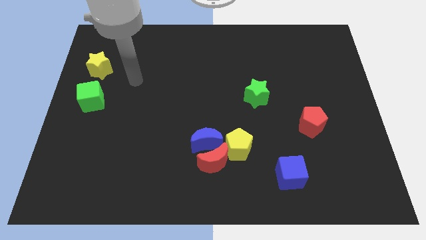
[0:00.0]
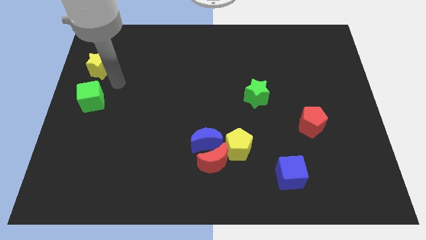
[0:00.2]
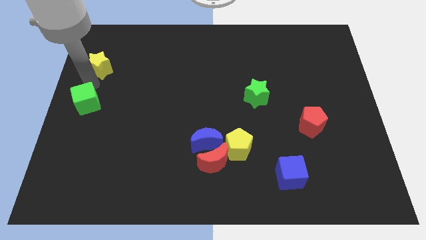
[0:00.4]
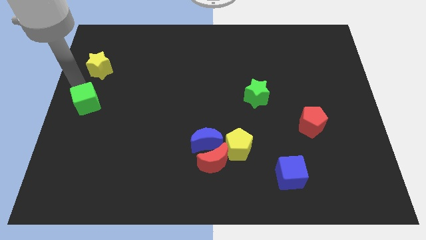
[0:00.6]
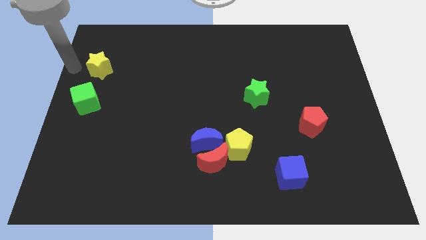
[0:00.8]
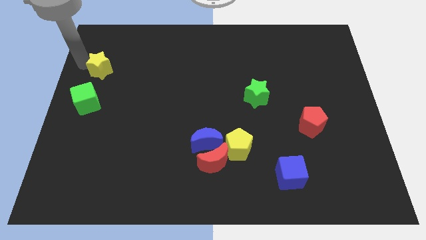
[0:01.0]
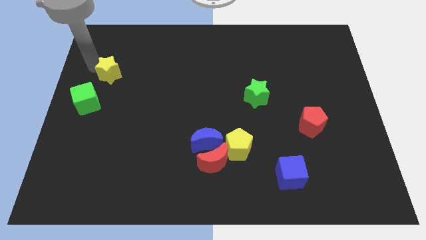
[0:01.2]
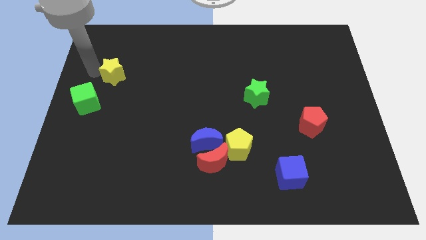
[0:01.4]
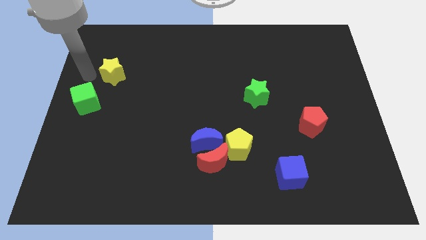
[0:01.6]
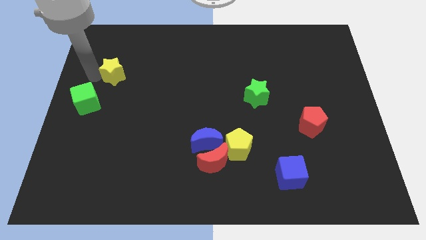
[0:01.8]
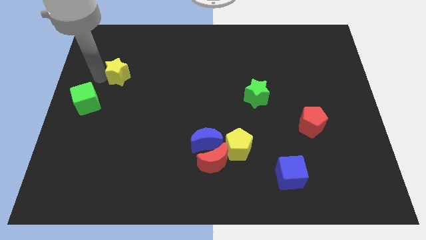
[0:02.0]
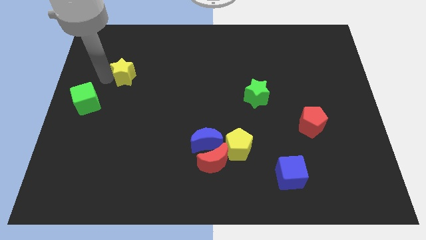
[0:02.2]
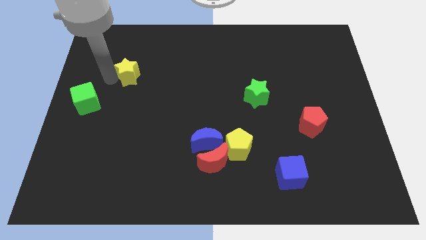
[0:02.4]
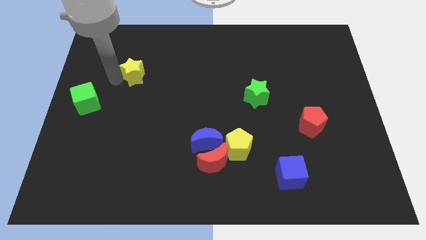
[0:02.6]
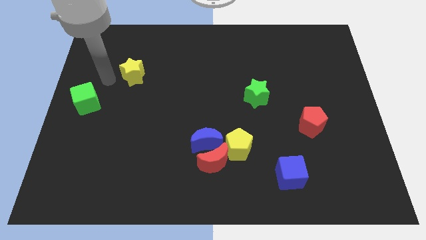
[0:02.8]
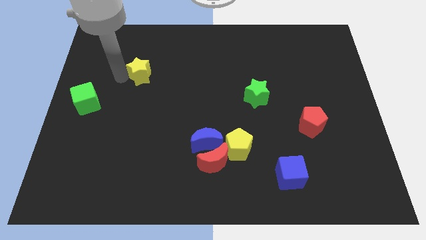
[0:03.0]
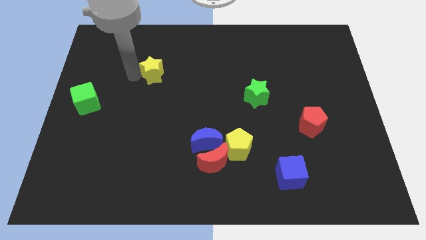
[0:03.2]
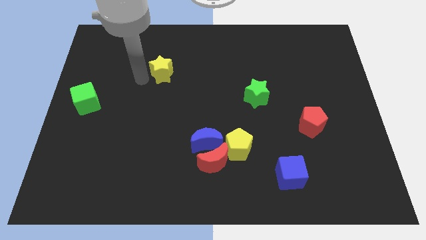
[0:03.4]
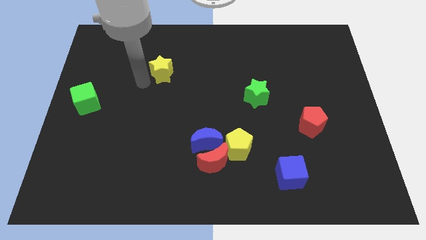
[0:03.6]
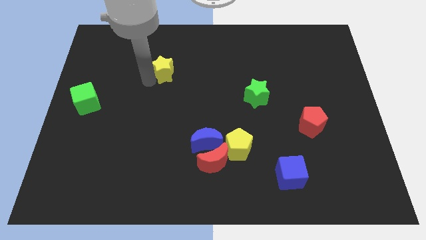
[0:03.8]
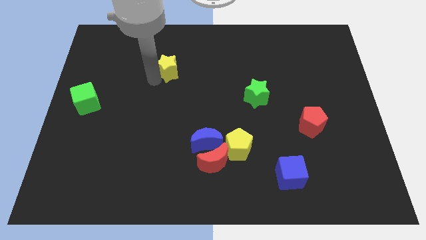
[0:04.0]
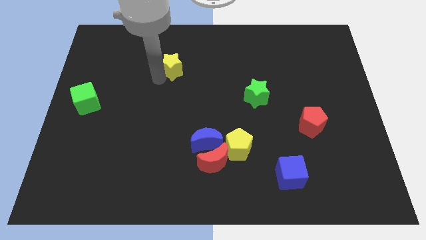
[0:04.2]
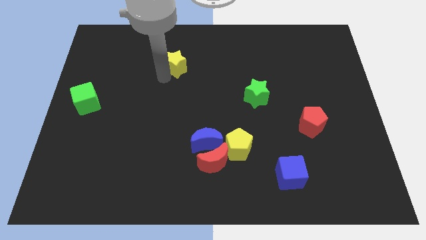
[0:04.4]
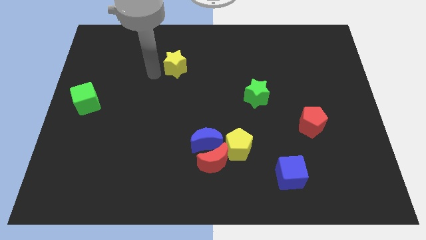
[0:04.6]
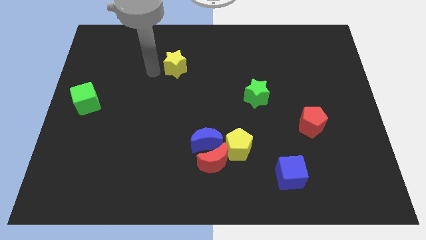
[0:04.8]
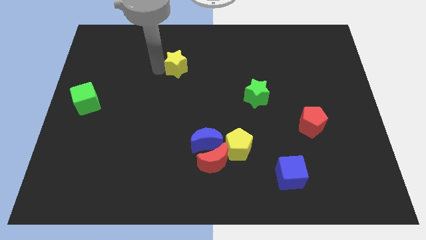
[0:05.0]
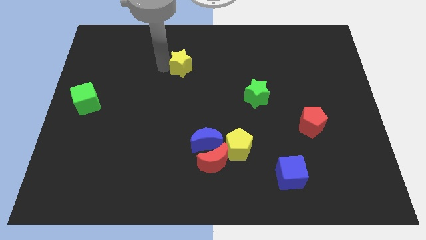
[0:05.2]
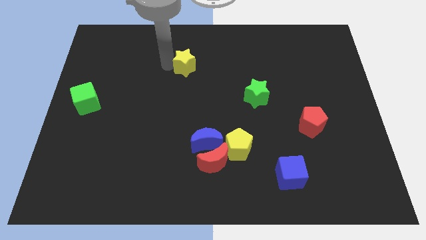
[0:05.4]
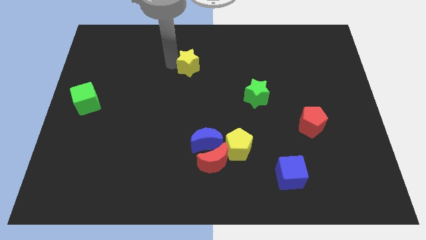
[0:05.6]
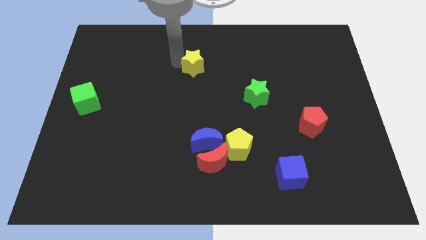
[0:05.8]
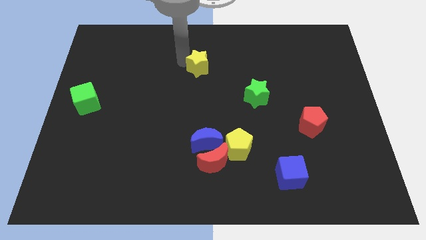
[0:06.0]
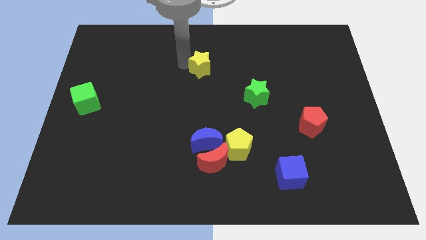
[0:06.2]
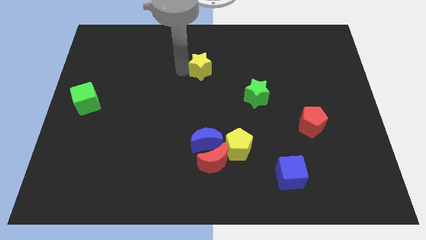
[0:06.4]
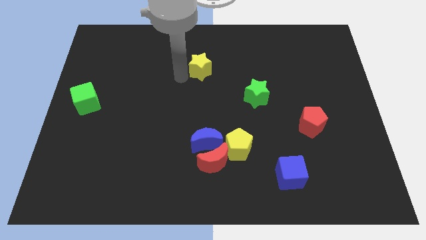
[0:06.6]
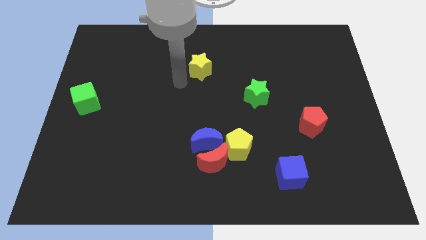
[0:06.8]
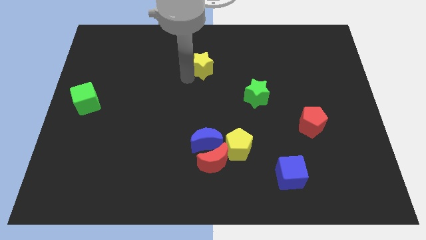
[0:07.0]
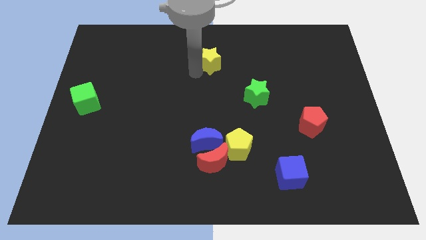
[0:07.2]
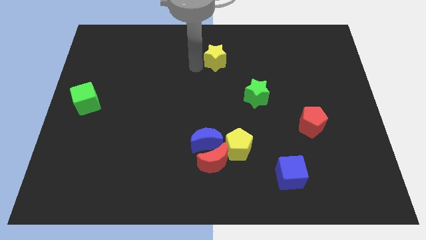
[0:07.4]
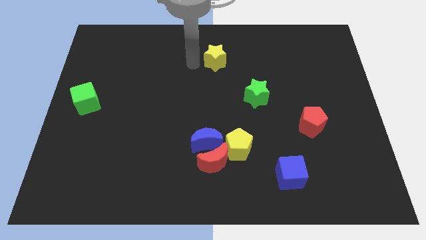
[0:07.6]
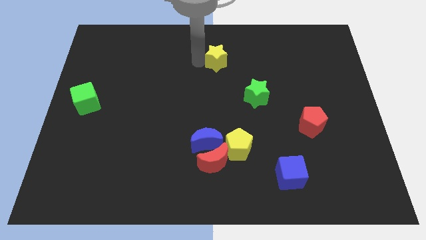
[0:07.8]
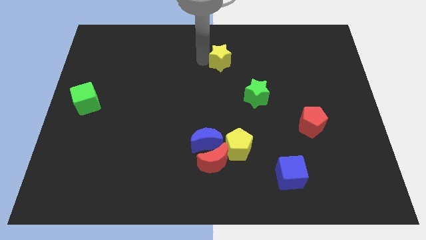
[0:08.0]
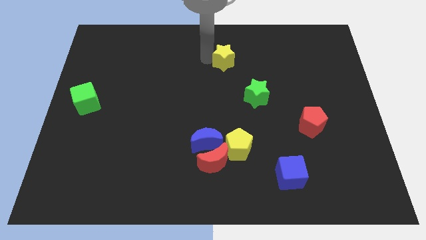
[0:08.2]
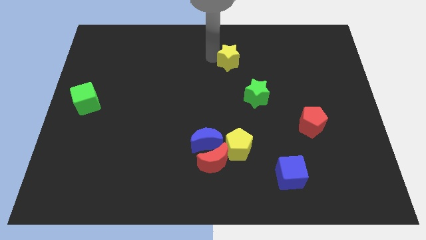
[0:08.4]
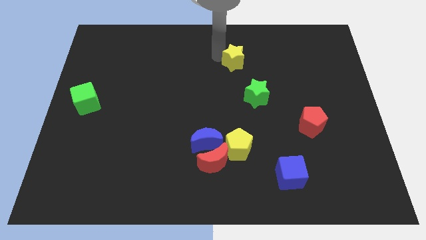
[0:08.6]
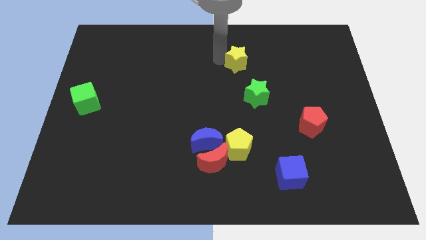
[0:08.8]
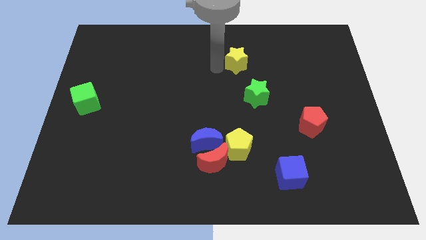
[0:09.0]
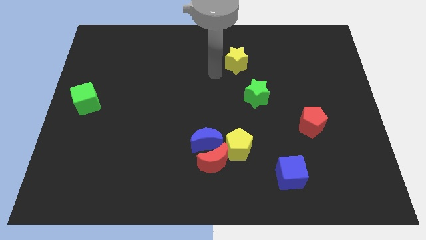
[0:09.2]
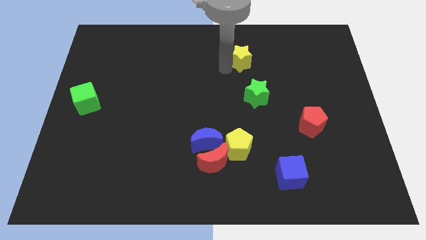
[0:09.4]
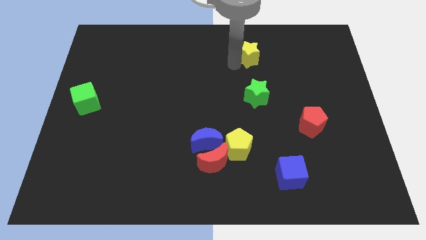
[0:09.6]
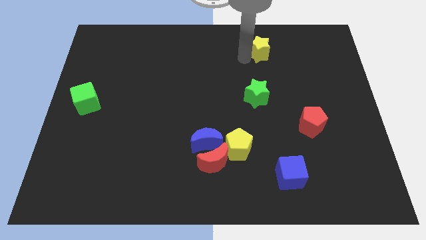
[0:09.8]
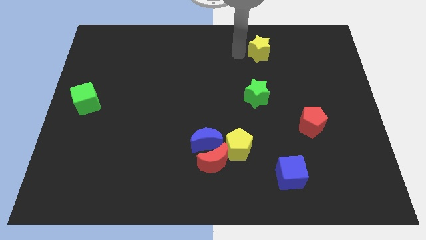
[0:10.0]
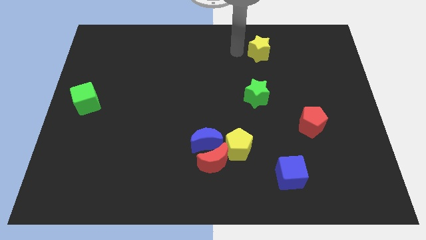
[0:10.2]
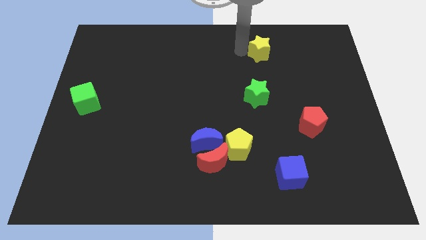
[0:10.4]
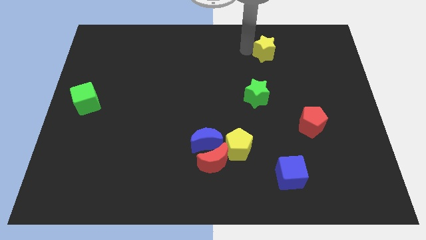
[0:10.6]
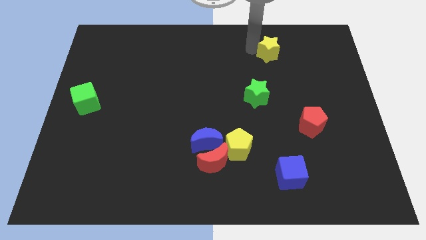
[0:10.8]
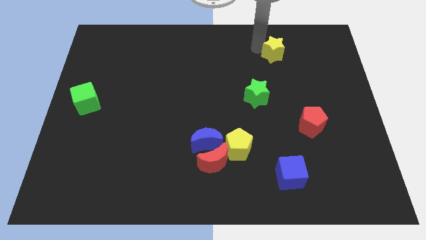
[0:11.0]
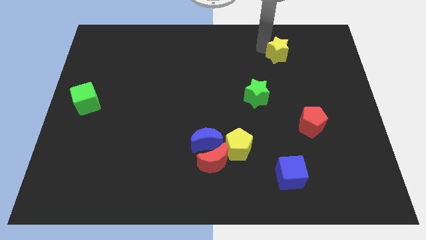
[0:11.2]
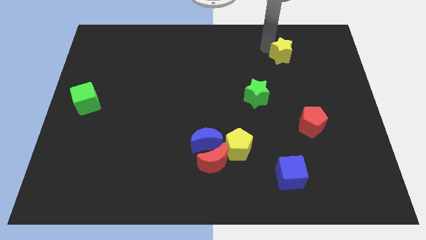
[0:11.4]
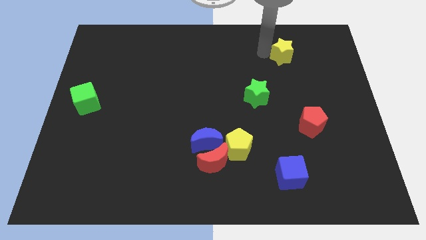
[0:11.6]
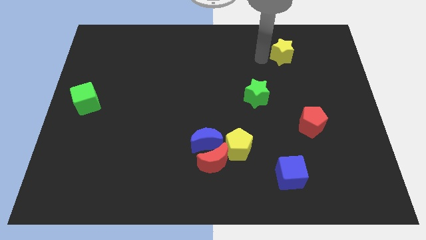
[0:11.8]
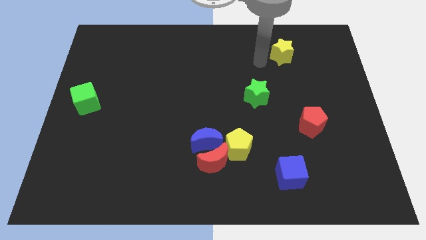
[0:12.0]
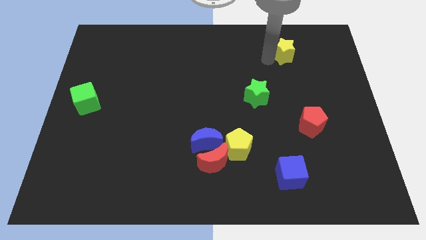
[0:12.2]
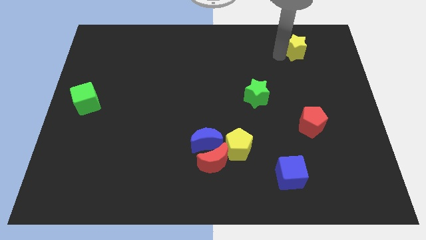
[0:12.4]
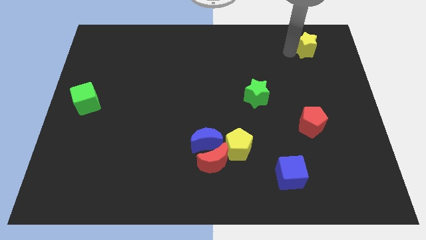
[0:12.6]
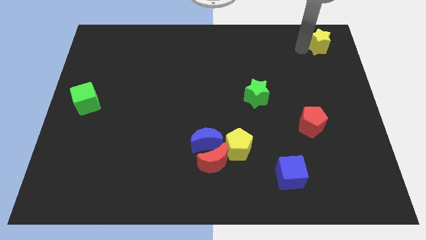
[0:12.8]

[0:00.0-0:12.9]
move the yellow star to the top right

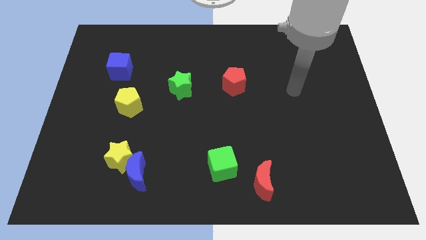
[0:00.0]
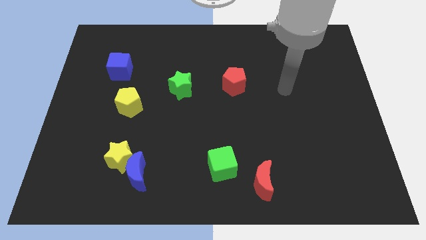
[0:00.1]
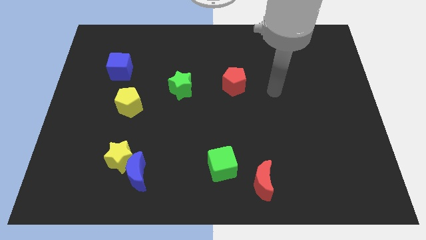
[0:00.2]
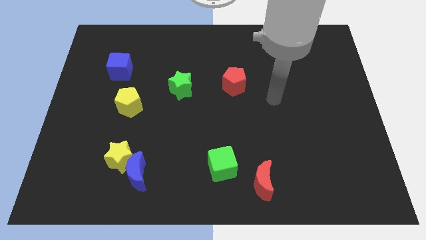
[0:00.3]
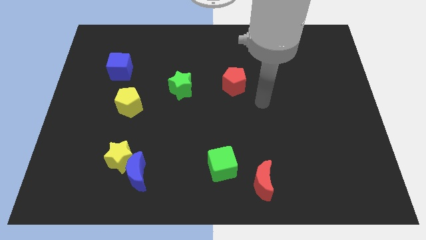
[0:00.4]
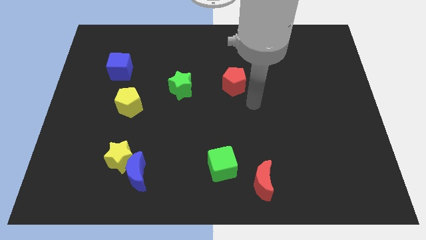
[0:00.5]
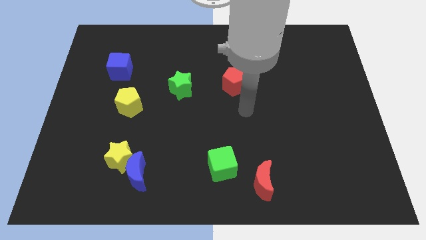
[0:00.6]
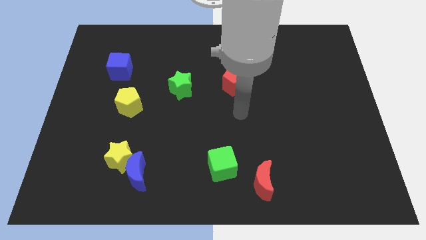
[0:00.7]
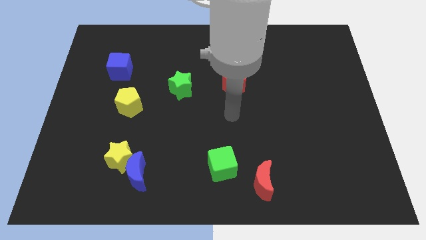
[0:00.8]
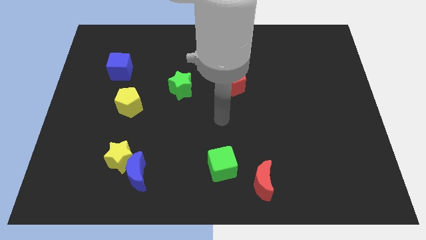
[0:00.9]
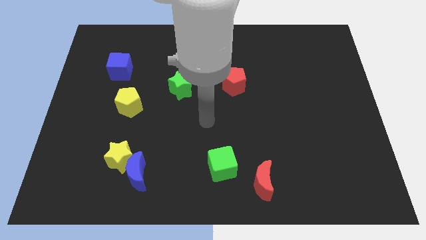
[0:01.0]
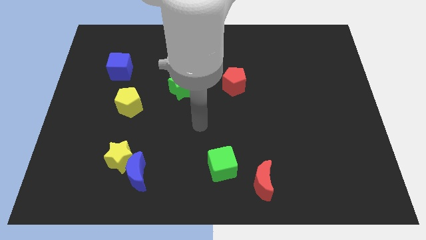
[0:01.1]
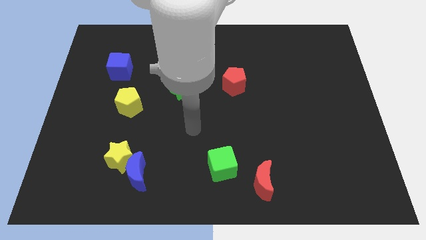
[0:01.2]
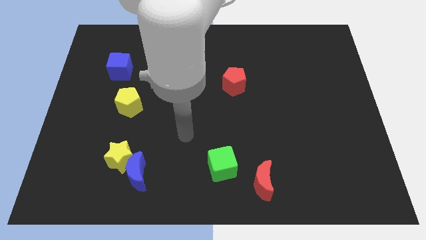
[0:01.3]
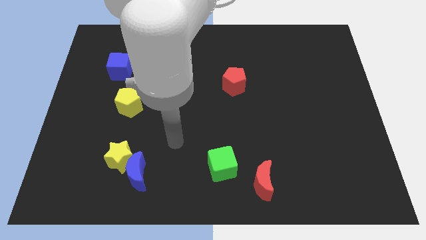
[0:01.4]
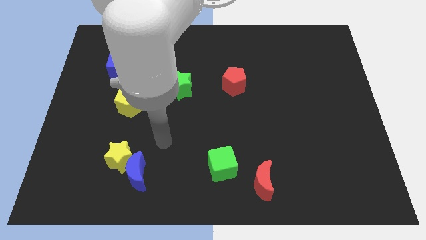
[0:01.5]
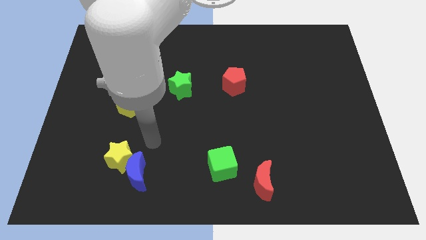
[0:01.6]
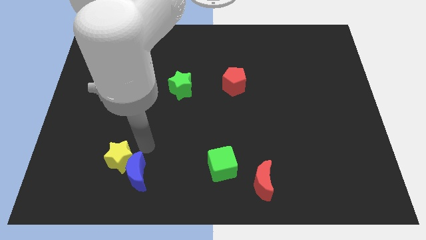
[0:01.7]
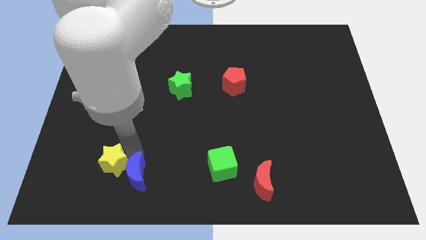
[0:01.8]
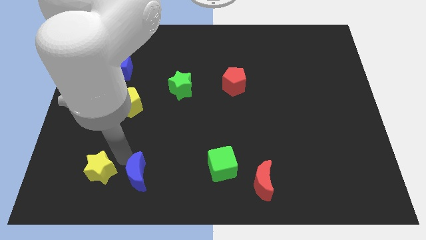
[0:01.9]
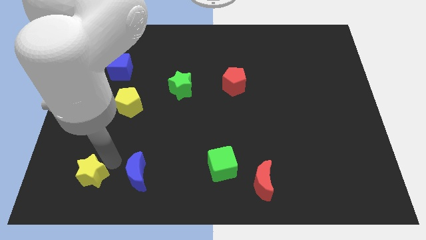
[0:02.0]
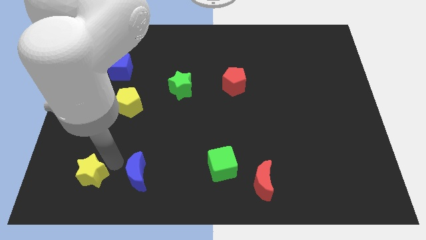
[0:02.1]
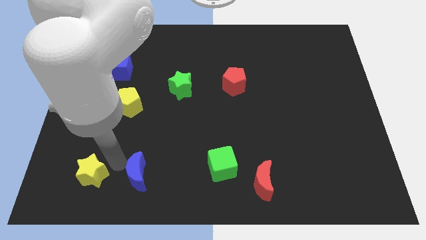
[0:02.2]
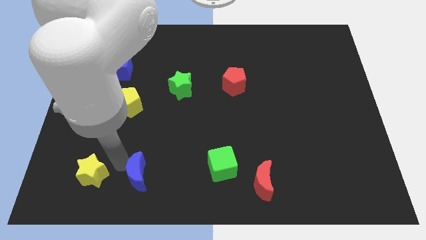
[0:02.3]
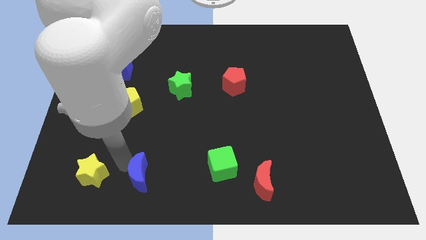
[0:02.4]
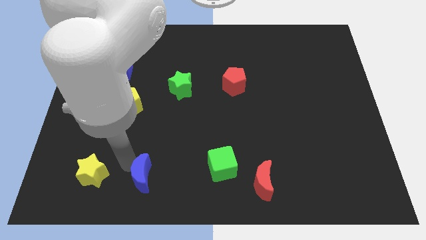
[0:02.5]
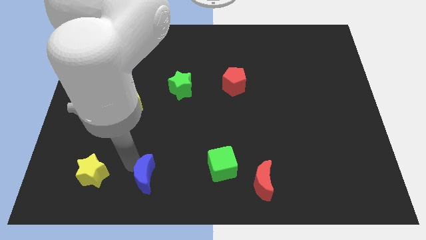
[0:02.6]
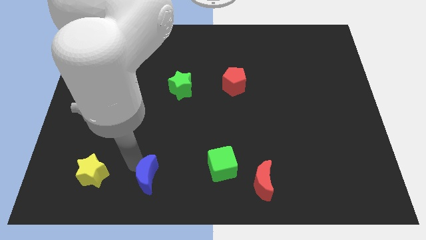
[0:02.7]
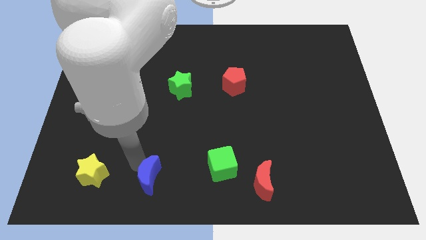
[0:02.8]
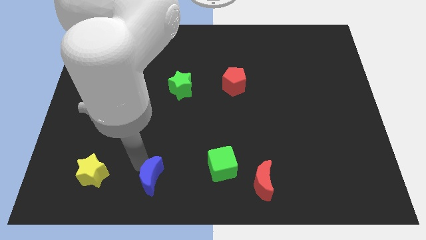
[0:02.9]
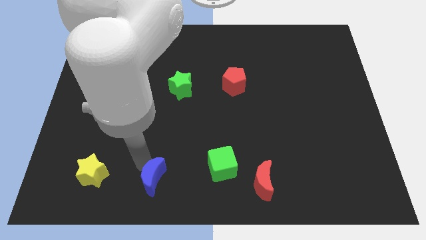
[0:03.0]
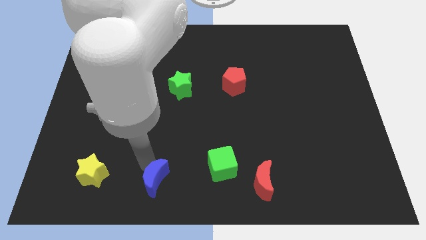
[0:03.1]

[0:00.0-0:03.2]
push the blue moon to the bottom
